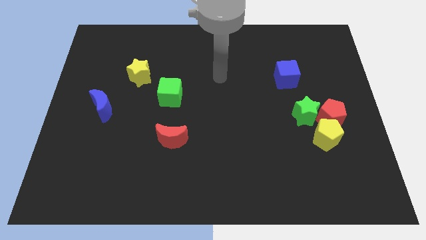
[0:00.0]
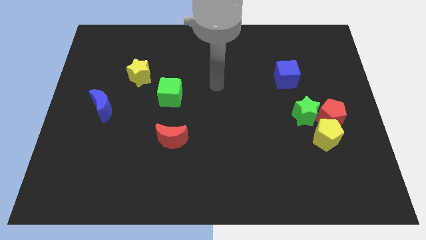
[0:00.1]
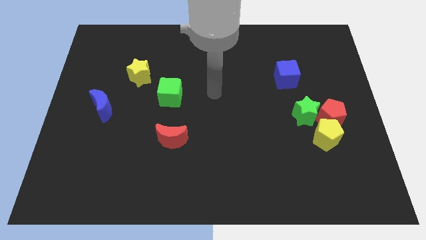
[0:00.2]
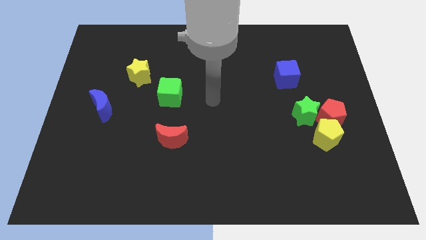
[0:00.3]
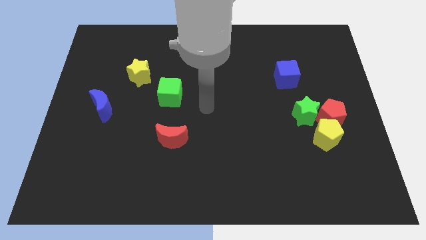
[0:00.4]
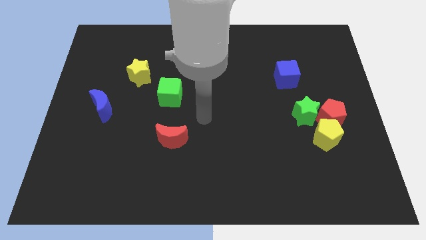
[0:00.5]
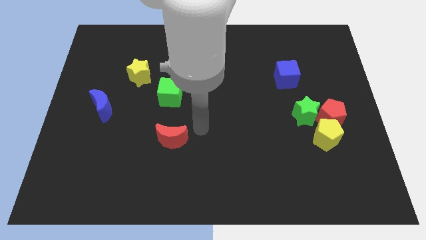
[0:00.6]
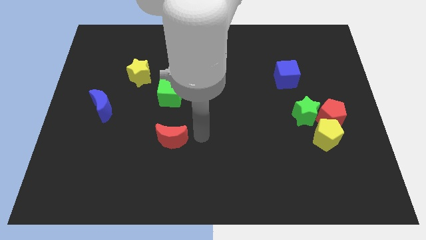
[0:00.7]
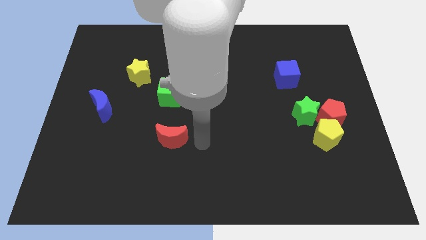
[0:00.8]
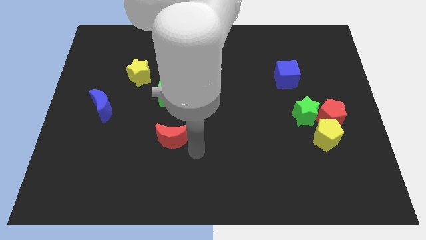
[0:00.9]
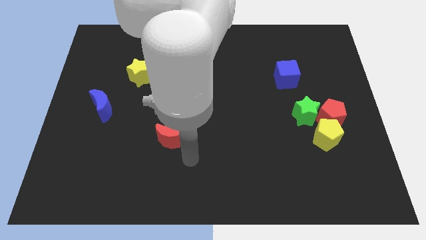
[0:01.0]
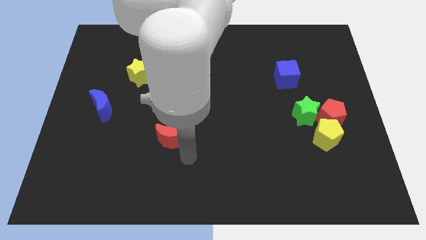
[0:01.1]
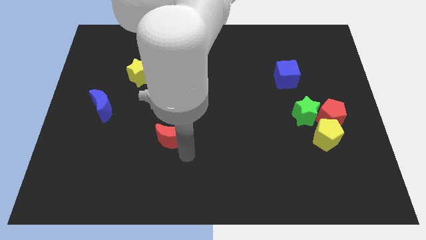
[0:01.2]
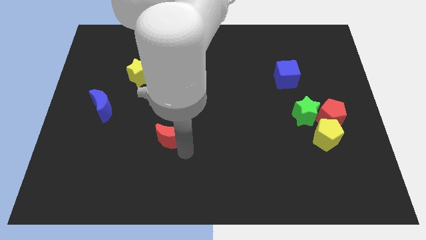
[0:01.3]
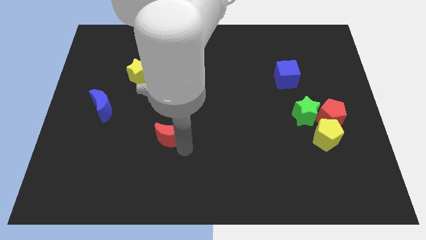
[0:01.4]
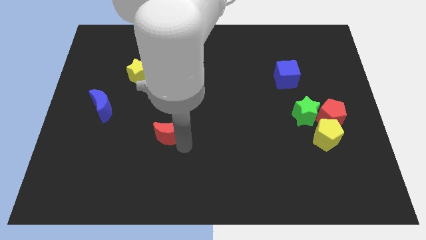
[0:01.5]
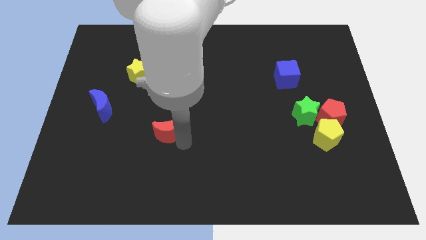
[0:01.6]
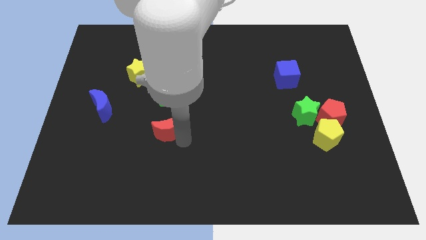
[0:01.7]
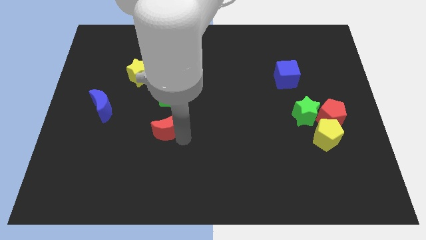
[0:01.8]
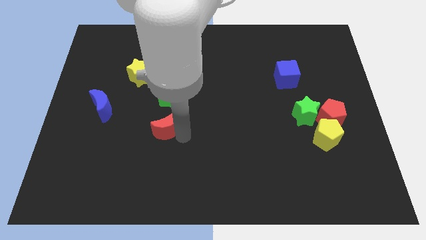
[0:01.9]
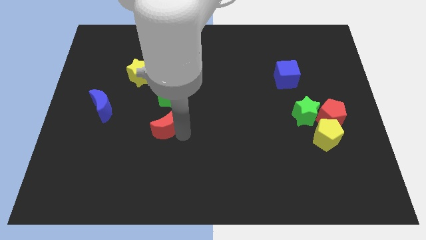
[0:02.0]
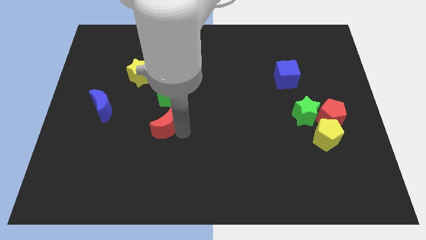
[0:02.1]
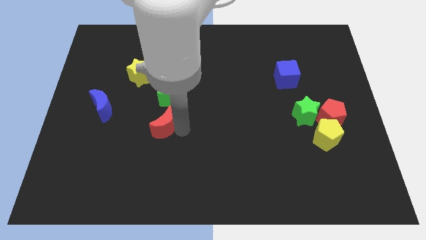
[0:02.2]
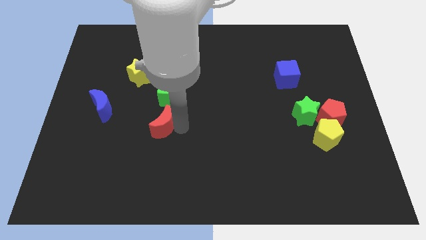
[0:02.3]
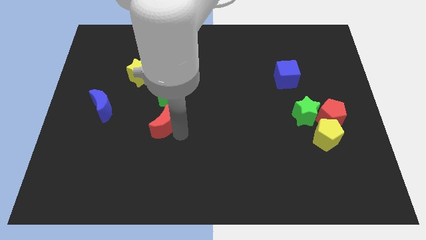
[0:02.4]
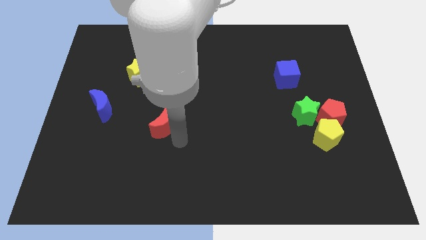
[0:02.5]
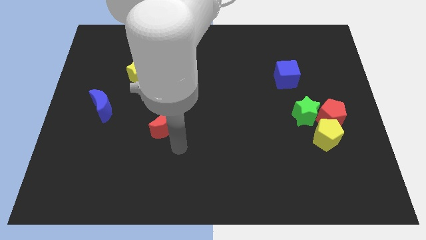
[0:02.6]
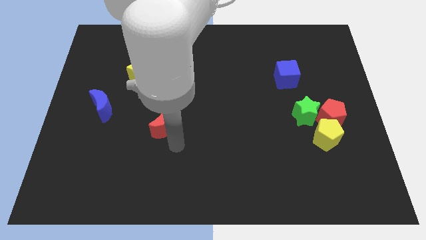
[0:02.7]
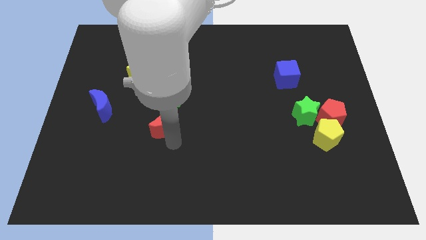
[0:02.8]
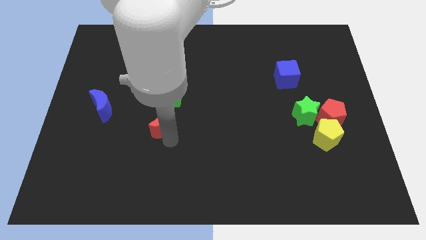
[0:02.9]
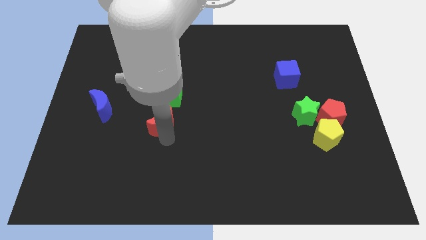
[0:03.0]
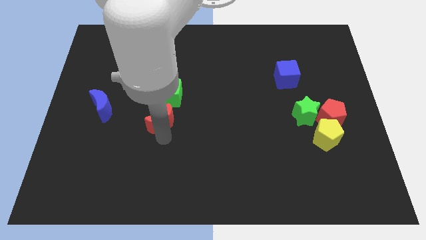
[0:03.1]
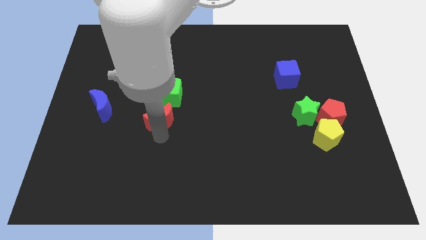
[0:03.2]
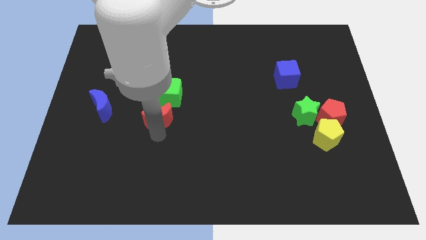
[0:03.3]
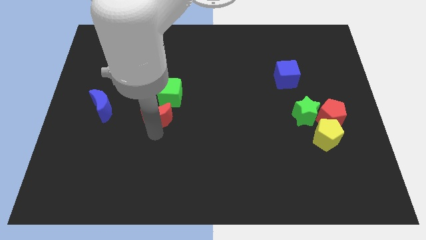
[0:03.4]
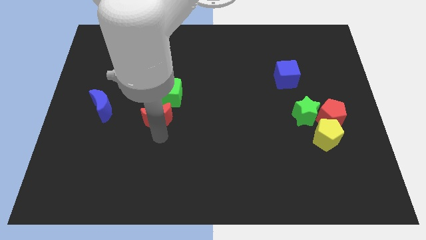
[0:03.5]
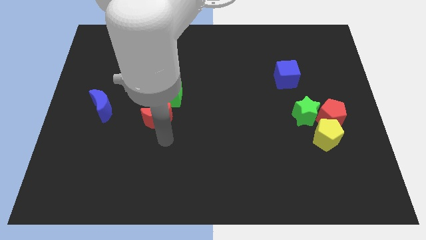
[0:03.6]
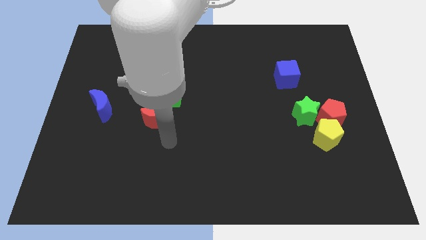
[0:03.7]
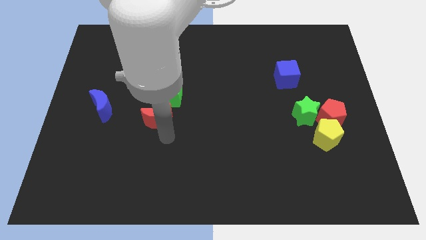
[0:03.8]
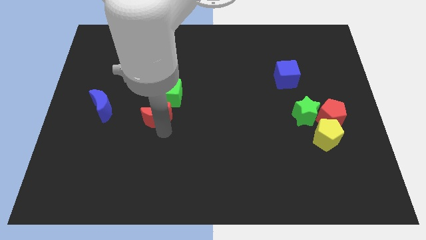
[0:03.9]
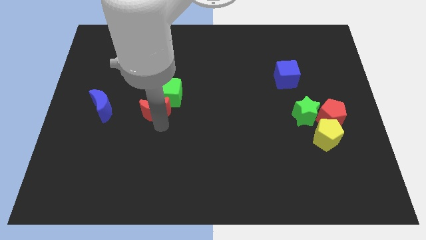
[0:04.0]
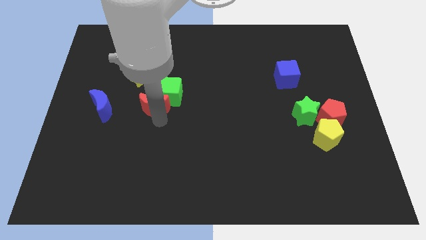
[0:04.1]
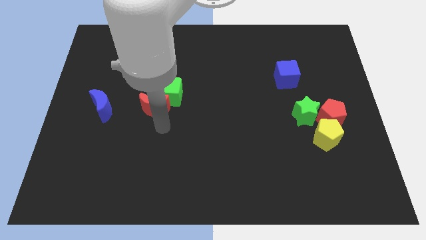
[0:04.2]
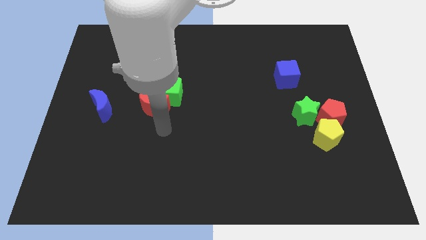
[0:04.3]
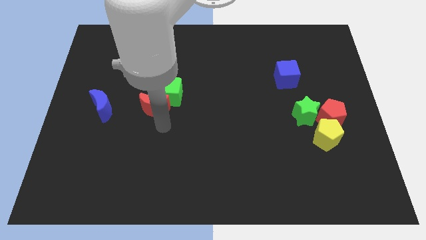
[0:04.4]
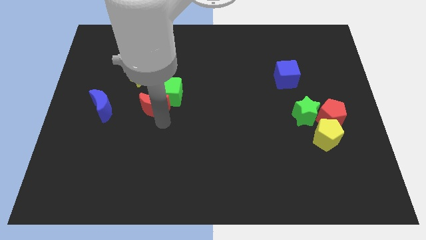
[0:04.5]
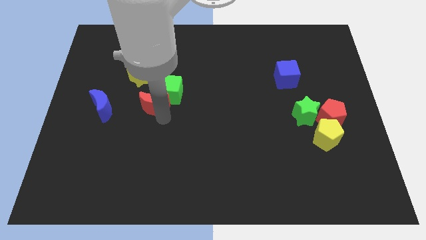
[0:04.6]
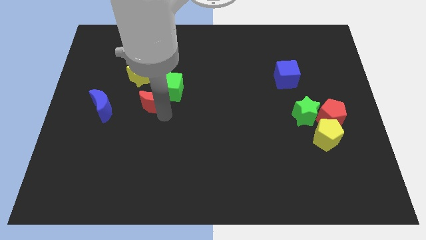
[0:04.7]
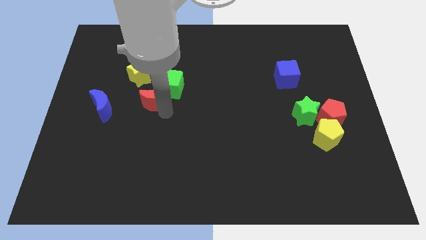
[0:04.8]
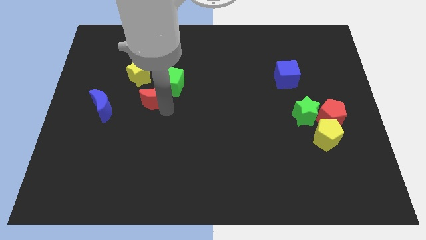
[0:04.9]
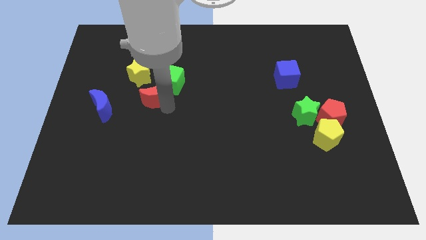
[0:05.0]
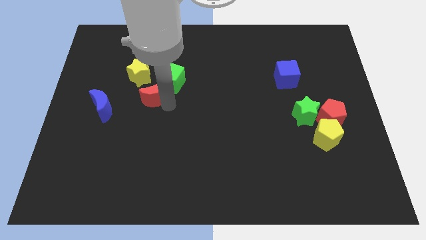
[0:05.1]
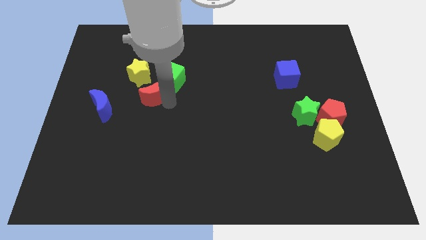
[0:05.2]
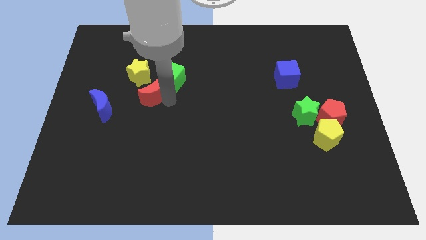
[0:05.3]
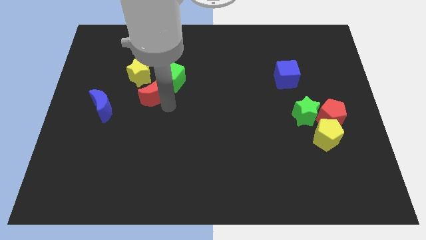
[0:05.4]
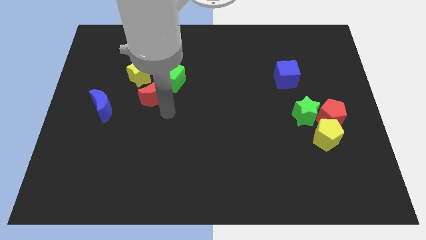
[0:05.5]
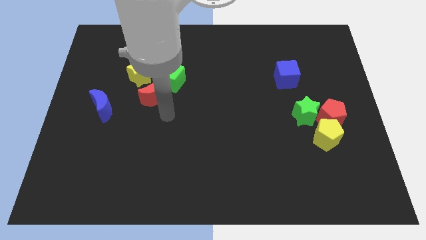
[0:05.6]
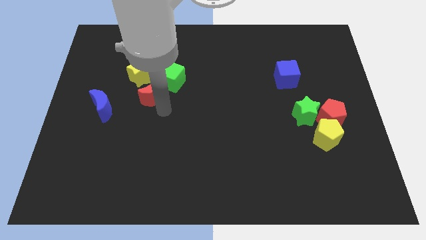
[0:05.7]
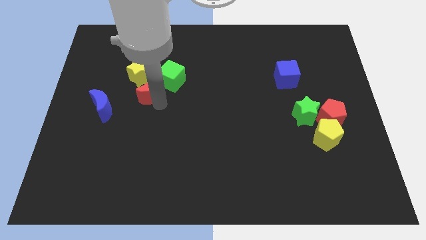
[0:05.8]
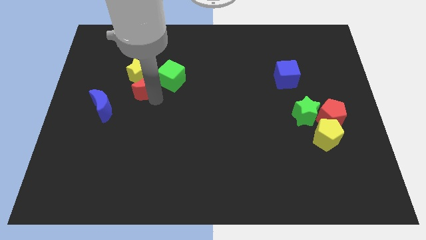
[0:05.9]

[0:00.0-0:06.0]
slide the red moon next to the yellow star
